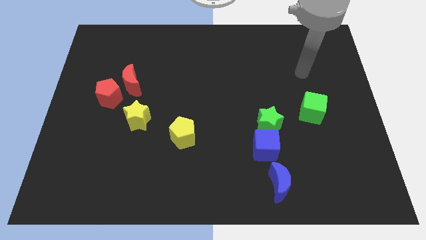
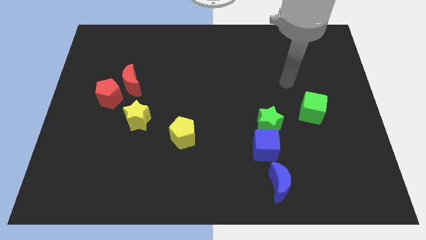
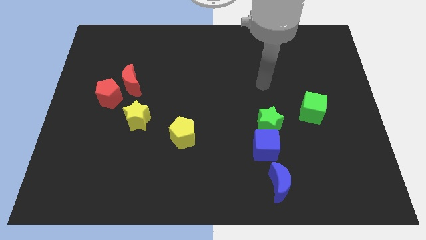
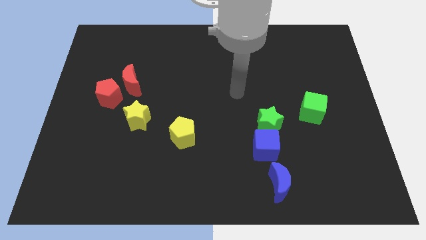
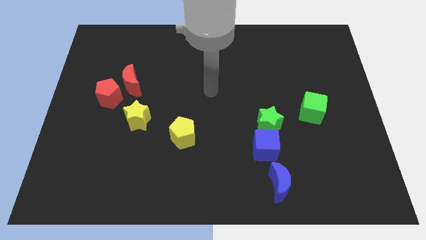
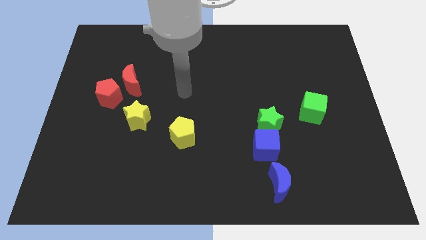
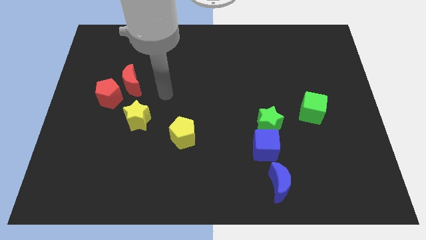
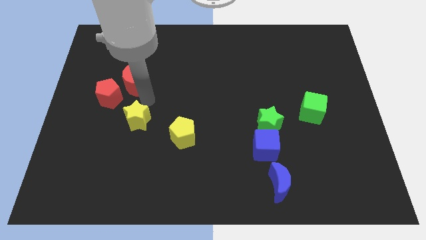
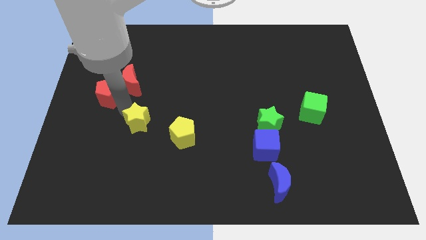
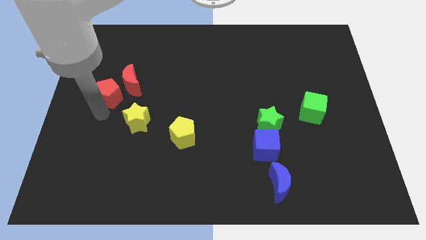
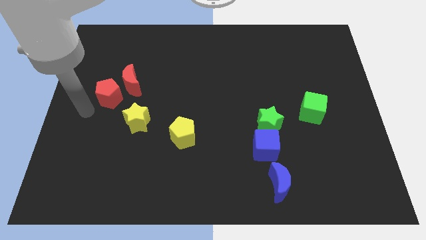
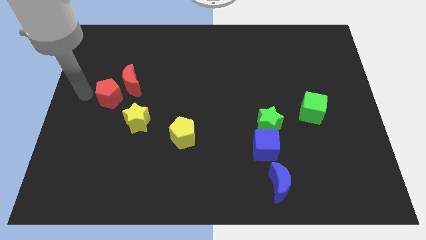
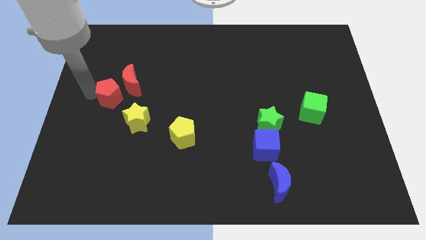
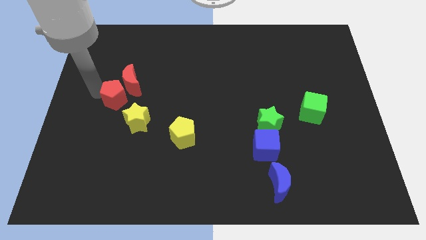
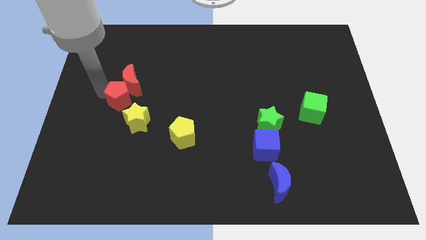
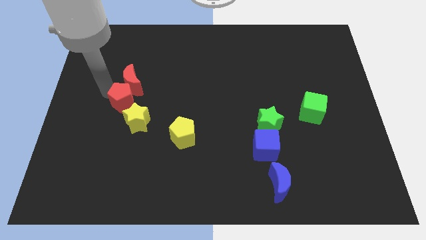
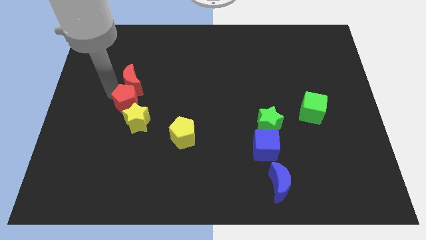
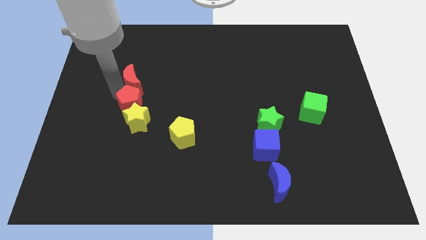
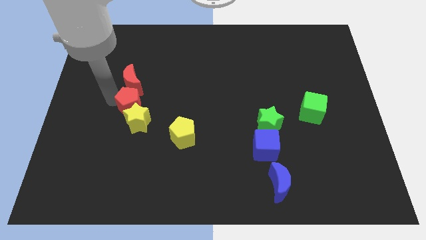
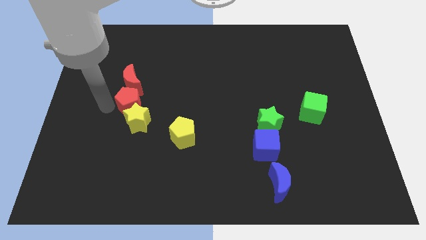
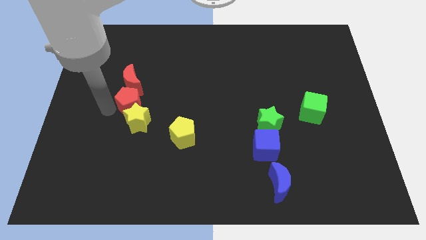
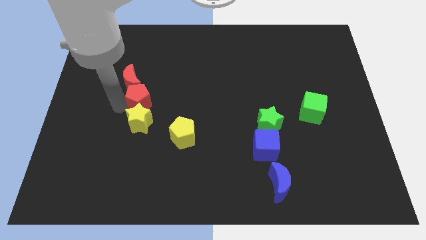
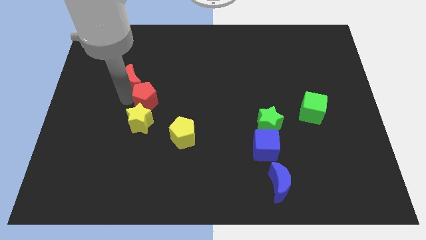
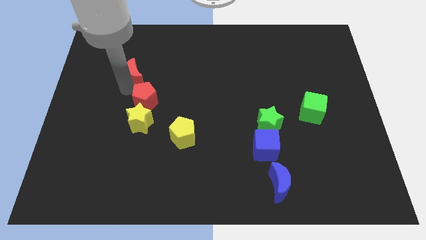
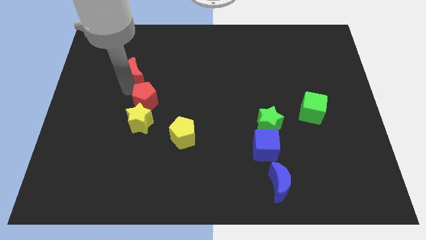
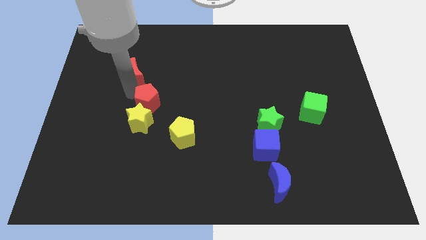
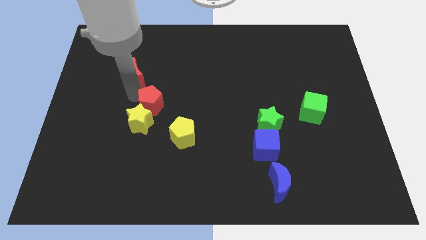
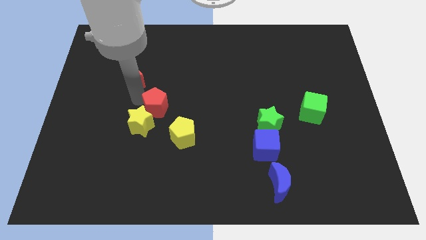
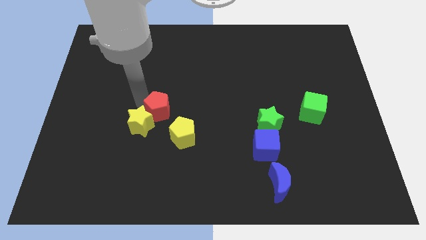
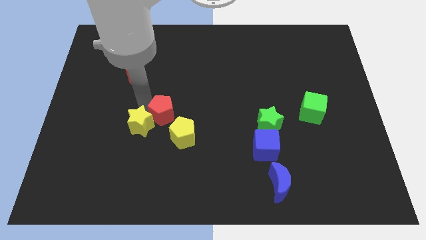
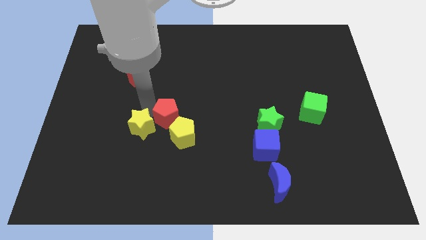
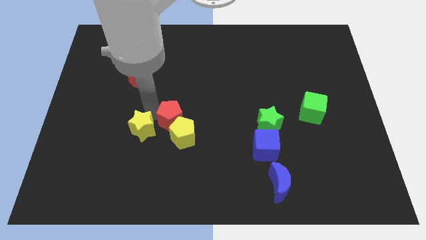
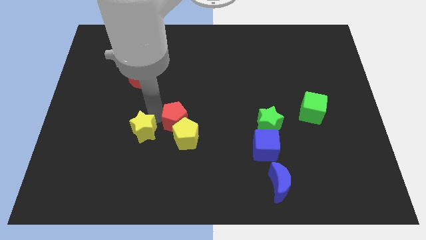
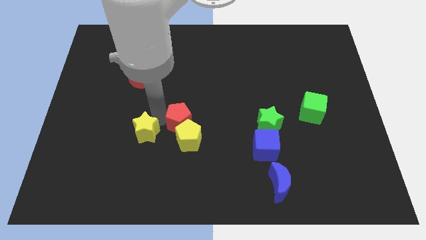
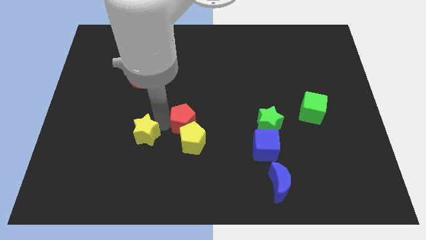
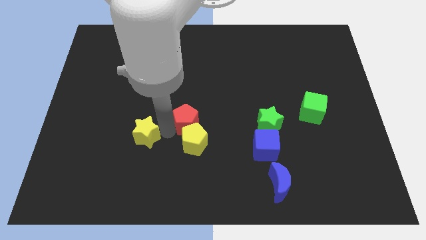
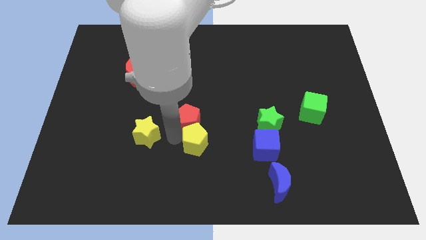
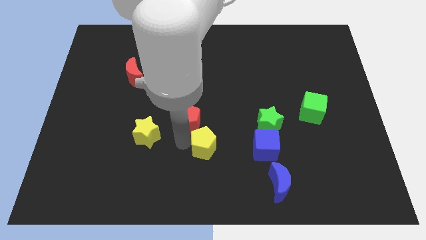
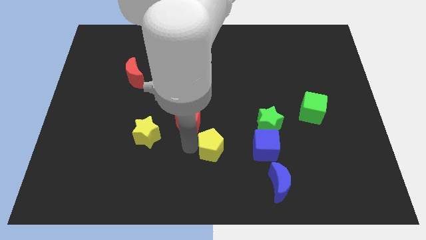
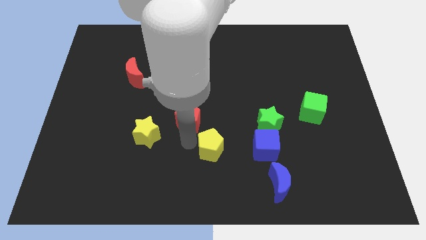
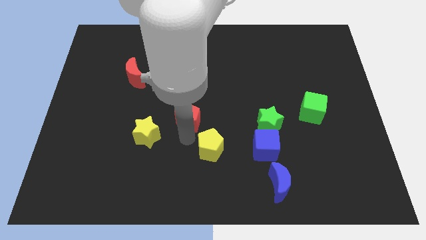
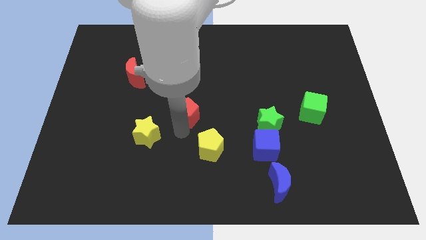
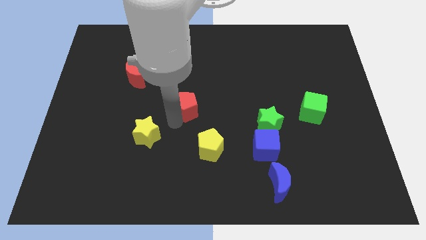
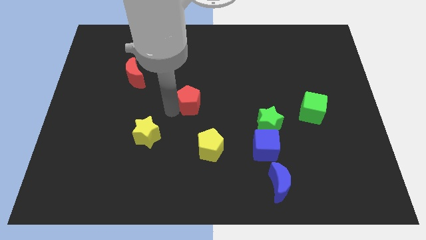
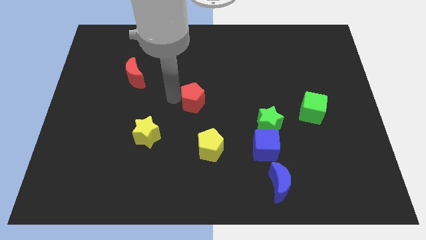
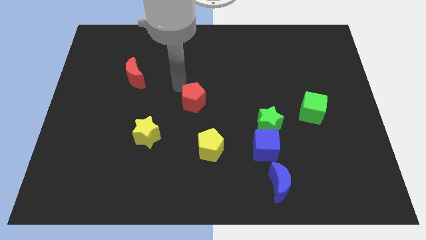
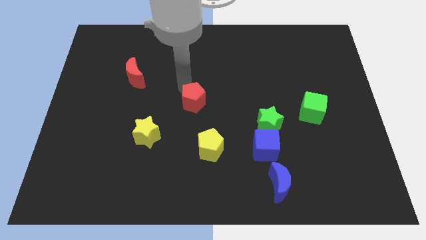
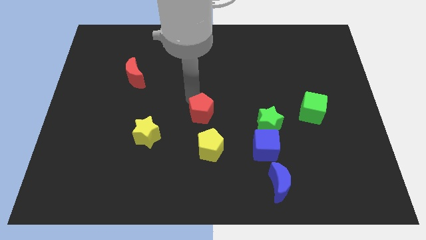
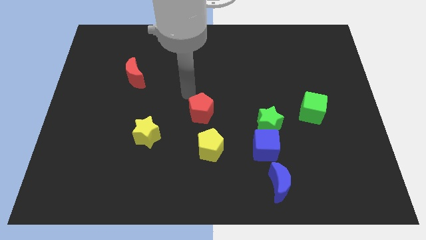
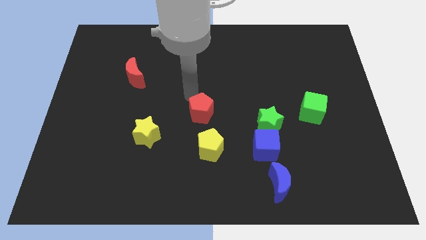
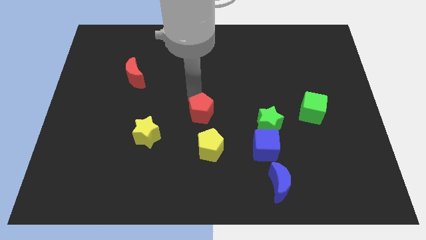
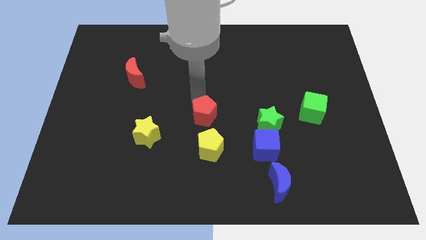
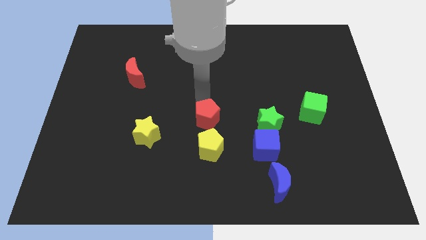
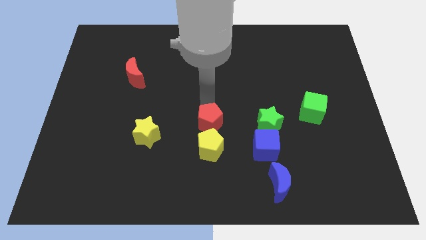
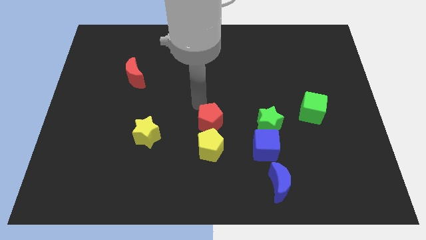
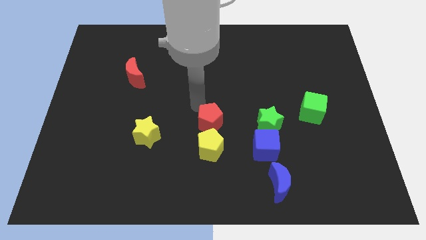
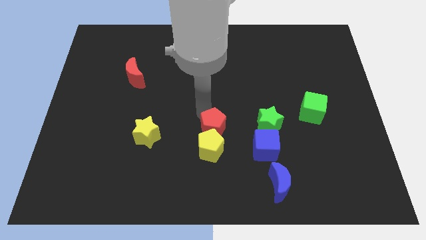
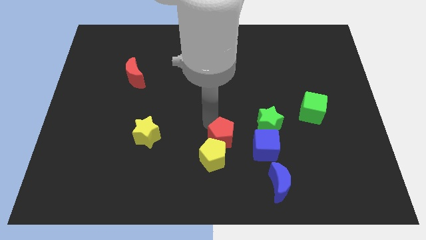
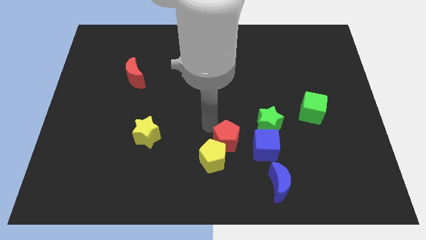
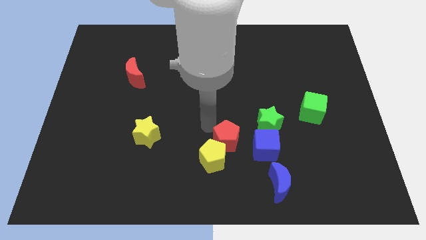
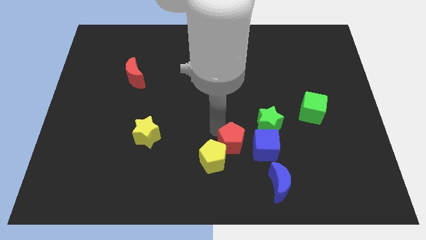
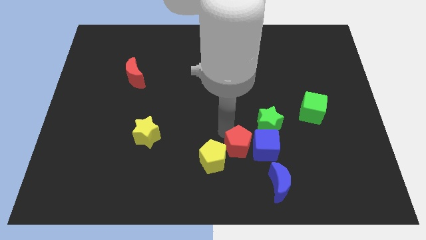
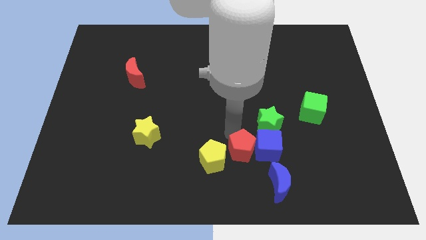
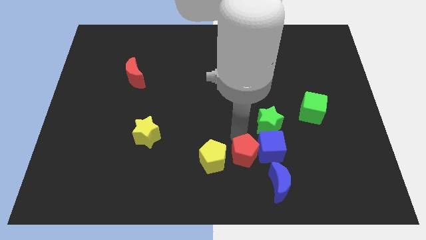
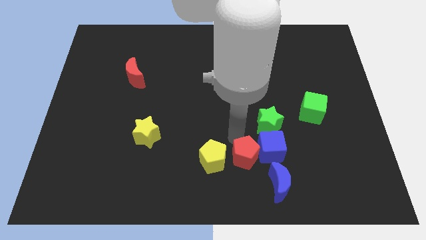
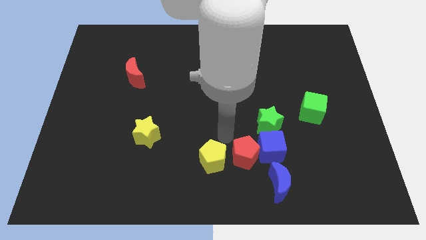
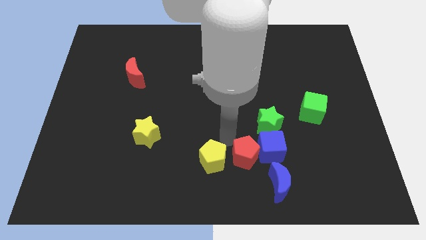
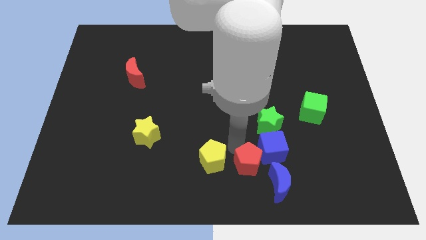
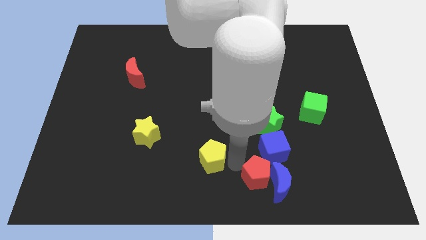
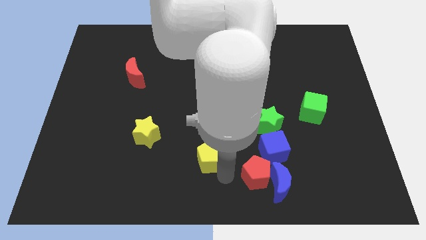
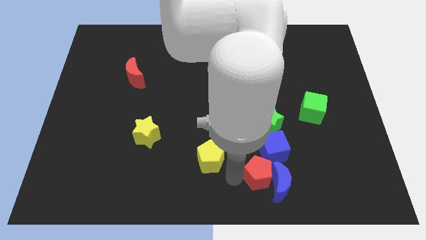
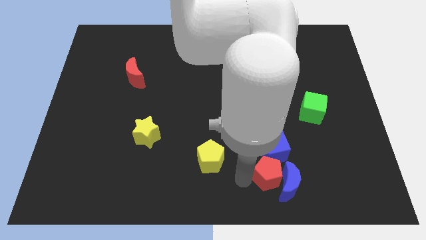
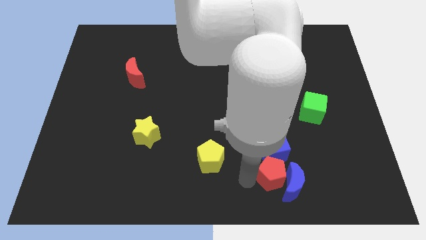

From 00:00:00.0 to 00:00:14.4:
move the red pentagon diagonally down and to the right of the blue cube

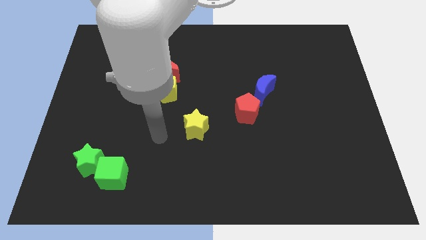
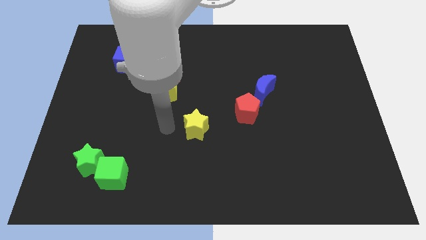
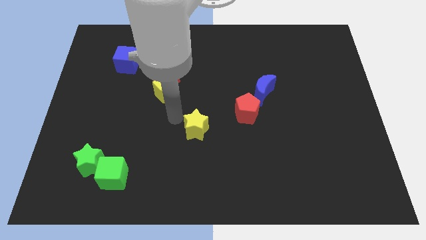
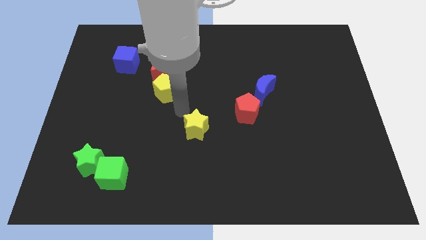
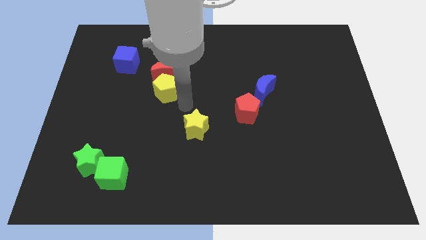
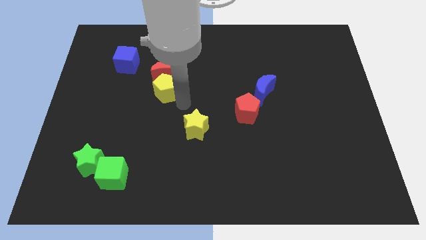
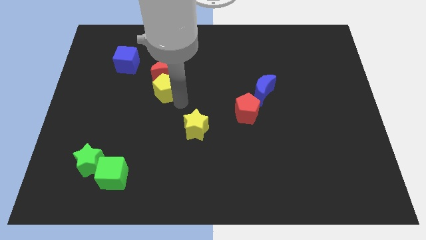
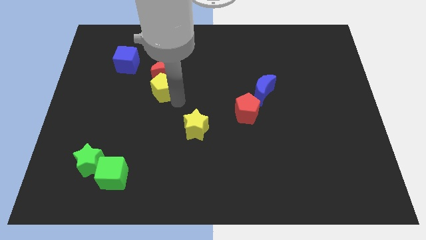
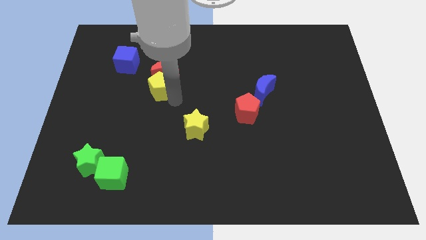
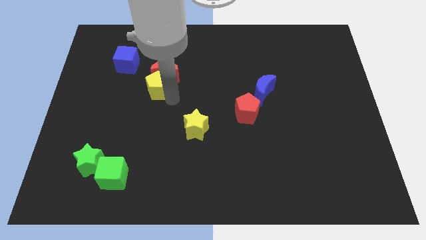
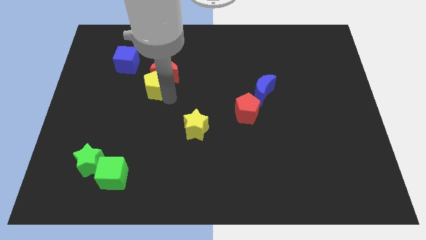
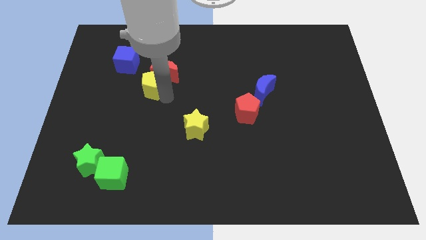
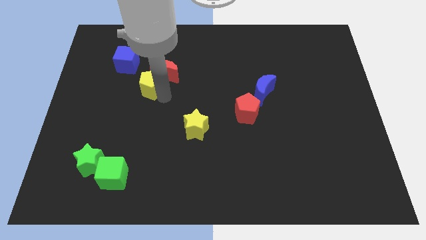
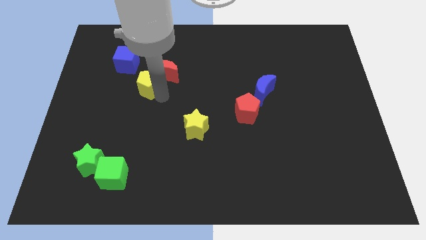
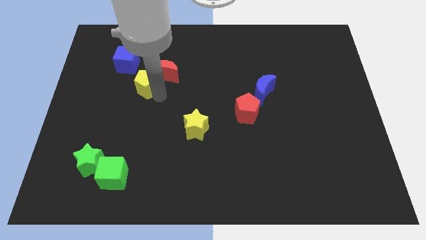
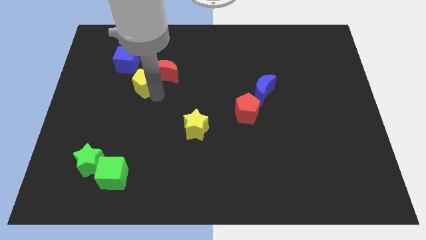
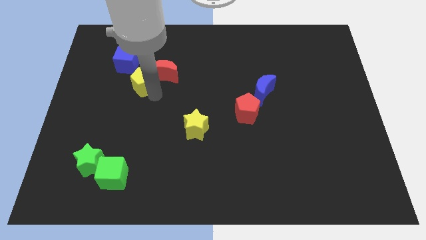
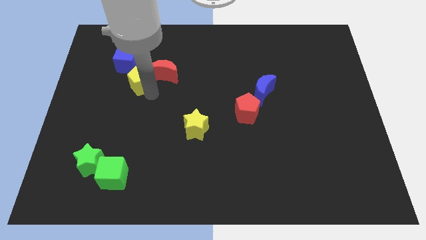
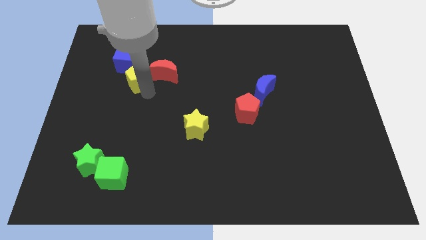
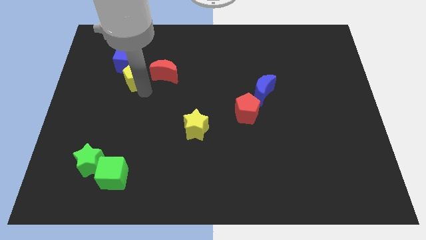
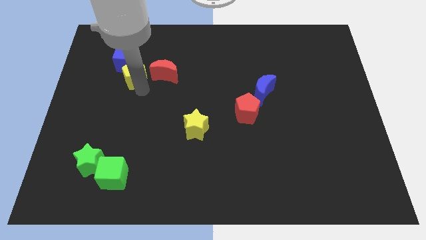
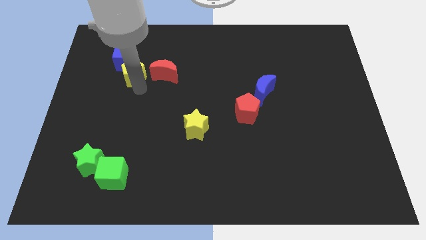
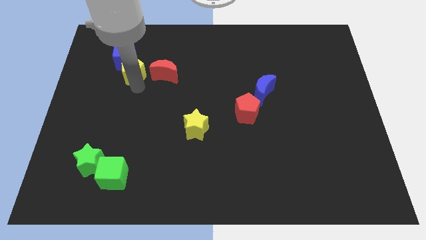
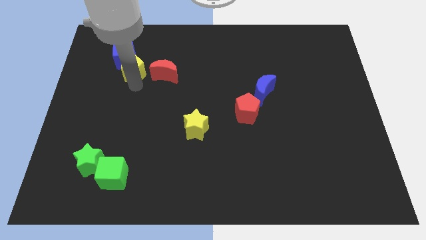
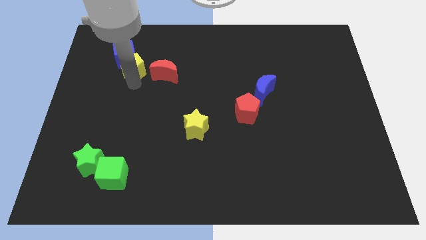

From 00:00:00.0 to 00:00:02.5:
put the yellow pentagon to the top left of the red moon
